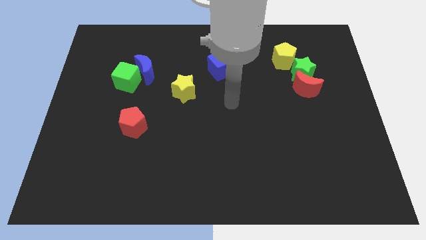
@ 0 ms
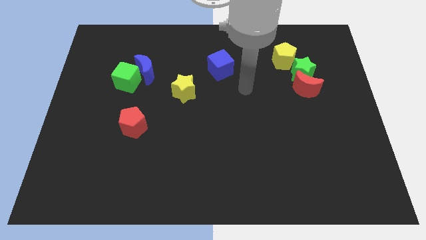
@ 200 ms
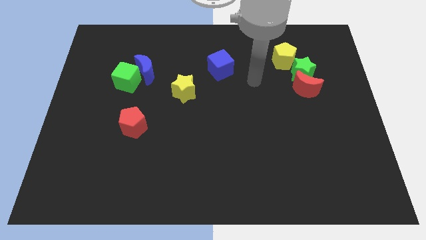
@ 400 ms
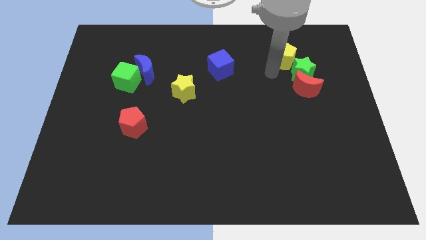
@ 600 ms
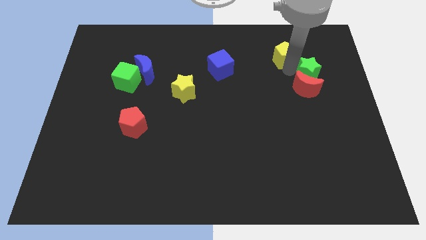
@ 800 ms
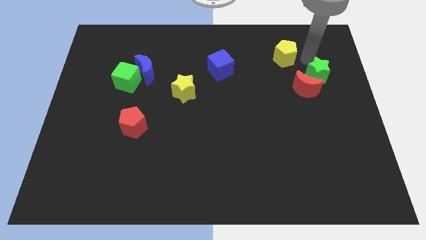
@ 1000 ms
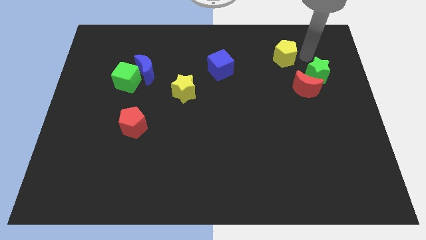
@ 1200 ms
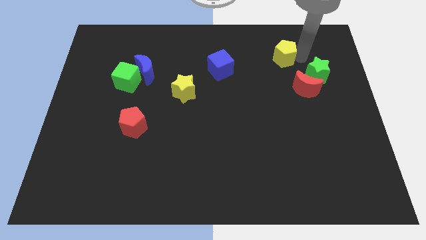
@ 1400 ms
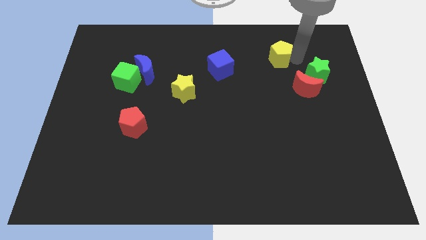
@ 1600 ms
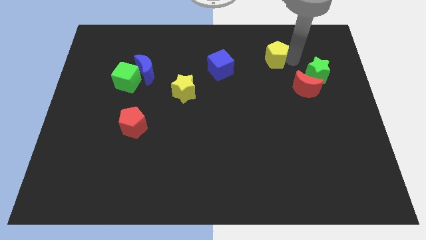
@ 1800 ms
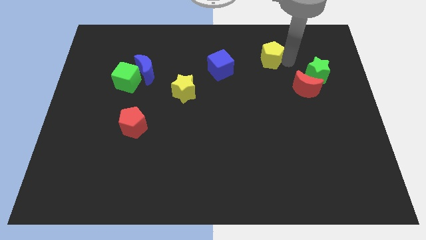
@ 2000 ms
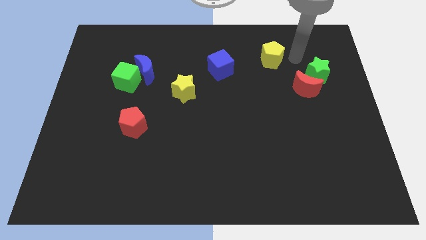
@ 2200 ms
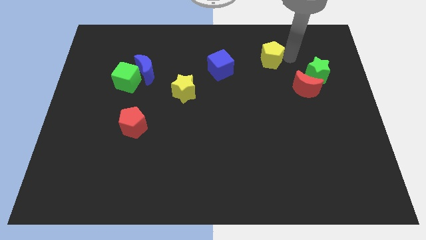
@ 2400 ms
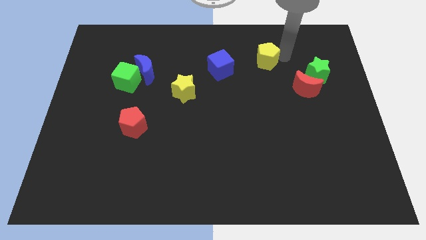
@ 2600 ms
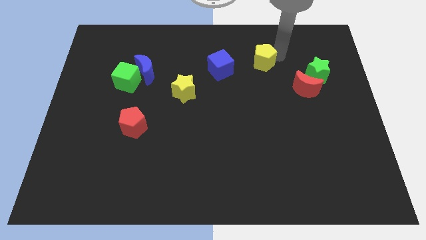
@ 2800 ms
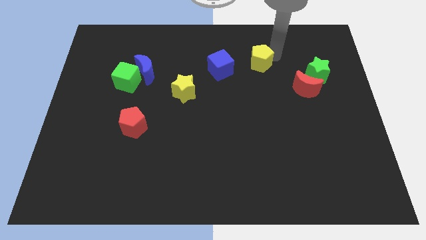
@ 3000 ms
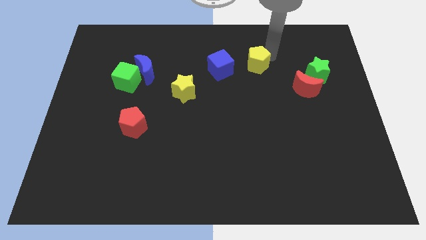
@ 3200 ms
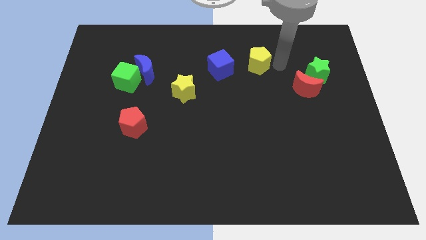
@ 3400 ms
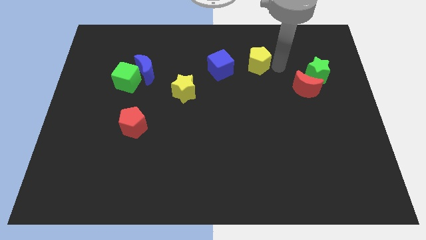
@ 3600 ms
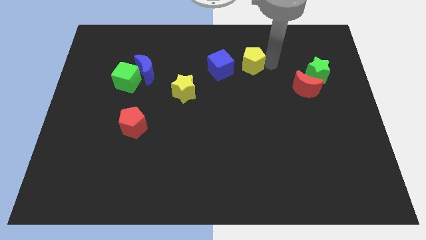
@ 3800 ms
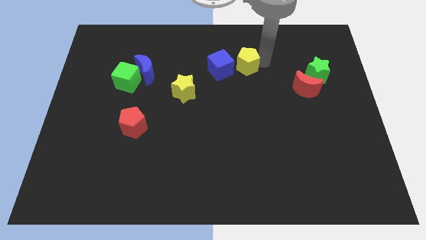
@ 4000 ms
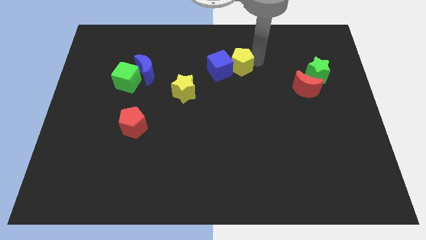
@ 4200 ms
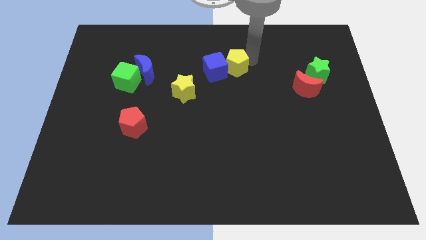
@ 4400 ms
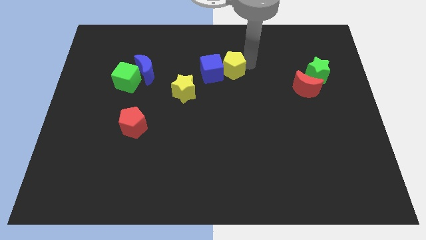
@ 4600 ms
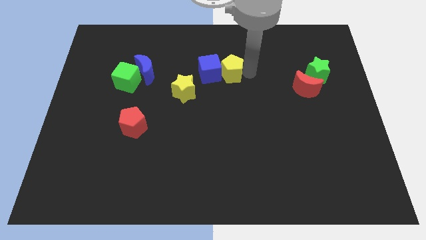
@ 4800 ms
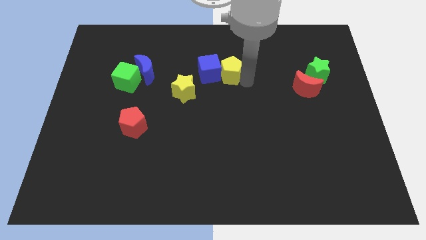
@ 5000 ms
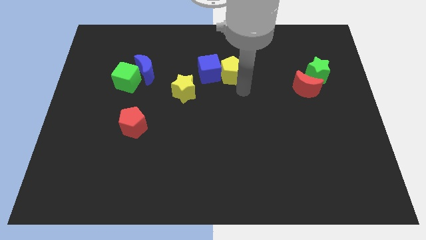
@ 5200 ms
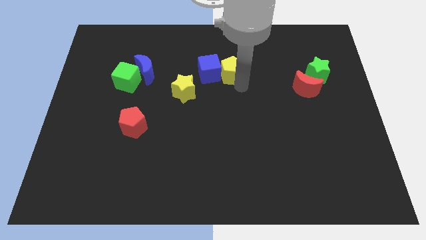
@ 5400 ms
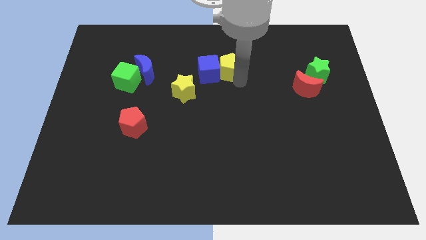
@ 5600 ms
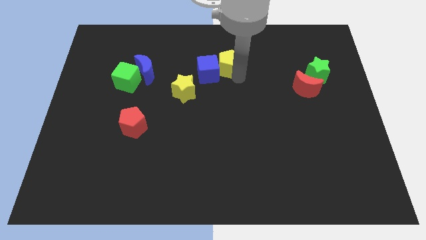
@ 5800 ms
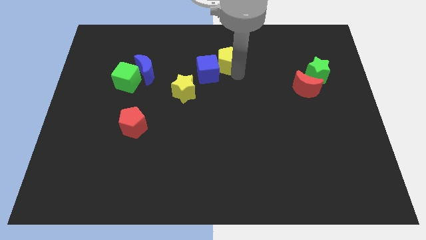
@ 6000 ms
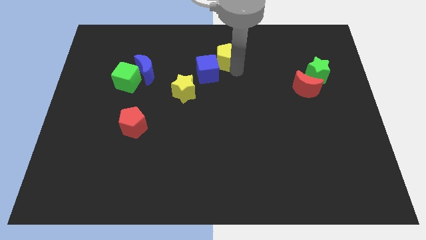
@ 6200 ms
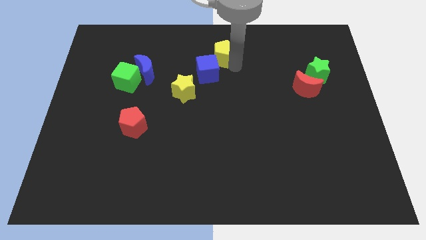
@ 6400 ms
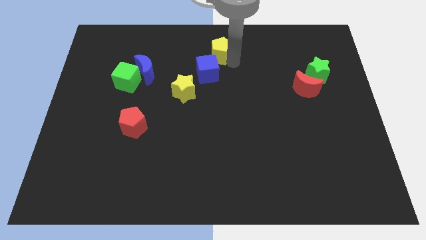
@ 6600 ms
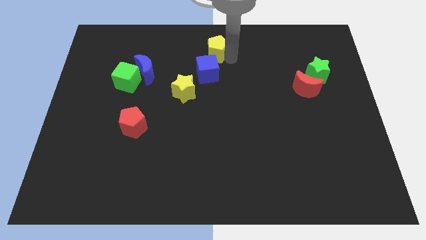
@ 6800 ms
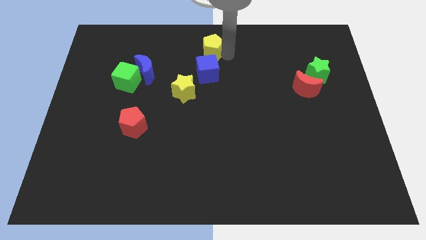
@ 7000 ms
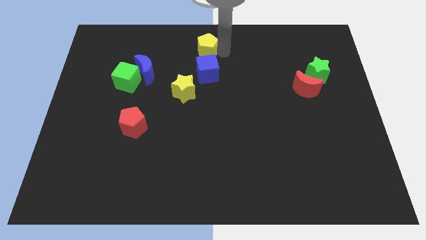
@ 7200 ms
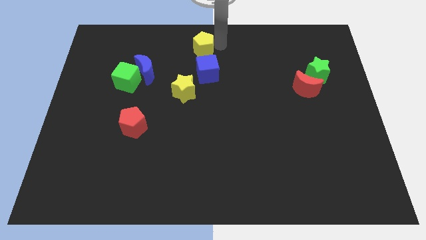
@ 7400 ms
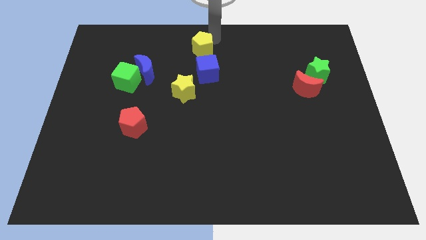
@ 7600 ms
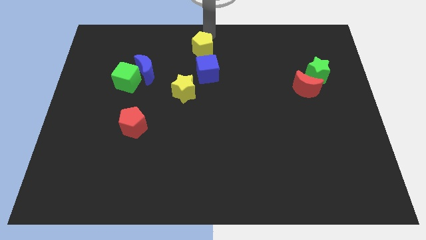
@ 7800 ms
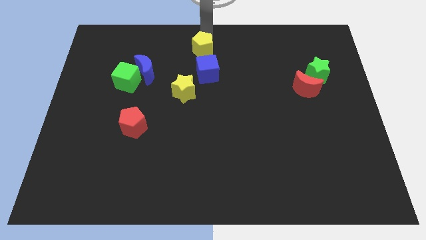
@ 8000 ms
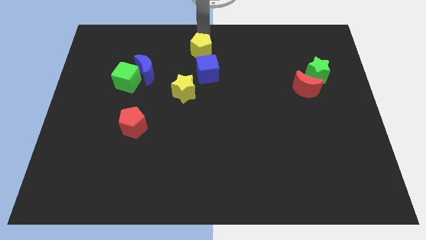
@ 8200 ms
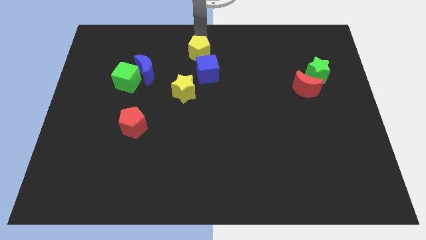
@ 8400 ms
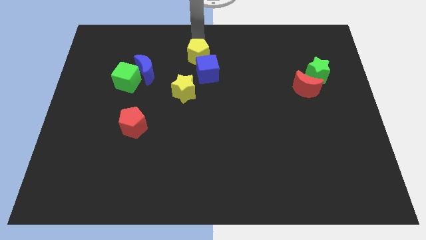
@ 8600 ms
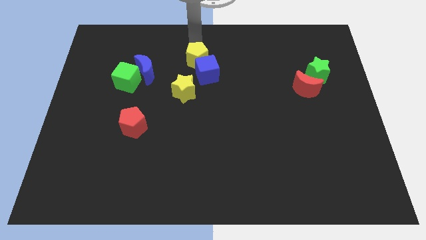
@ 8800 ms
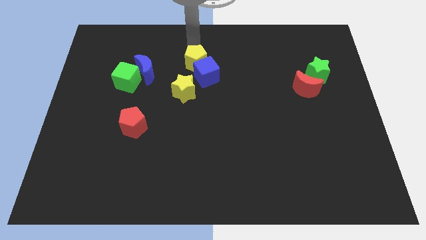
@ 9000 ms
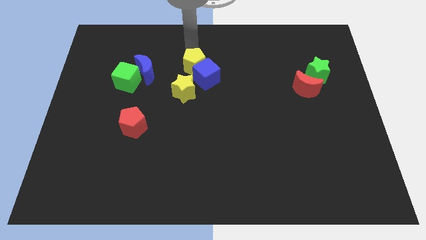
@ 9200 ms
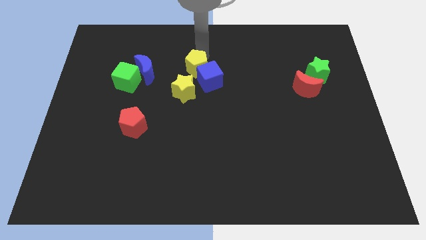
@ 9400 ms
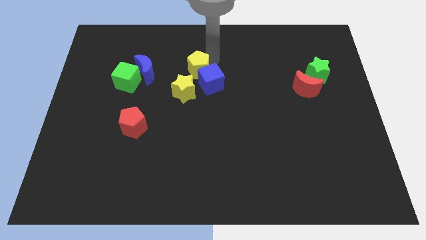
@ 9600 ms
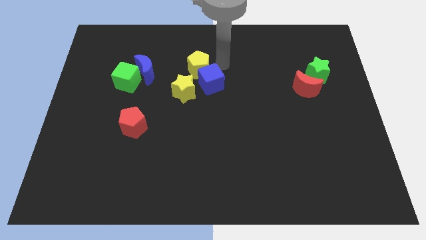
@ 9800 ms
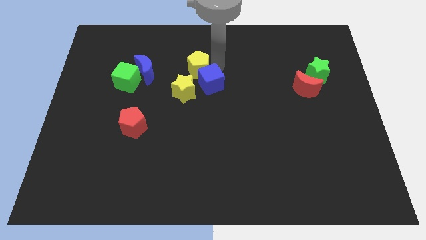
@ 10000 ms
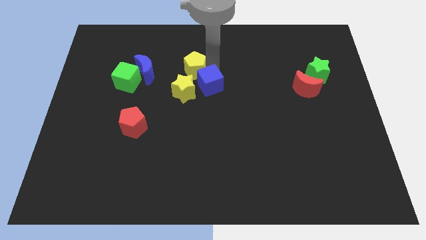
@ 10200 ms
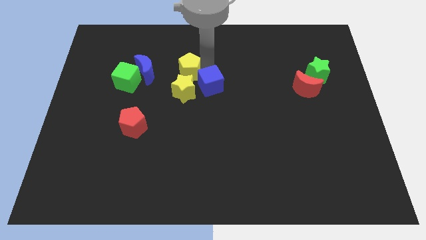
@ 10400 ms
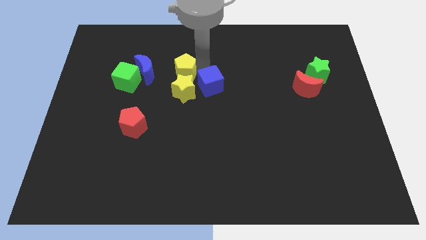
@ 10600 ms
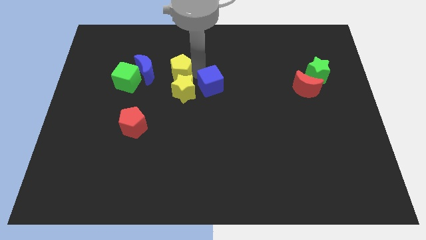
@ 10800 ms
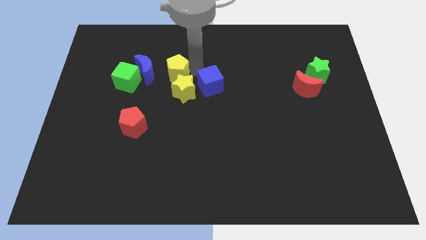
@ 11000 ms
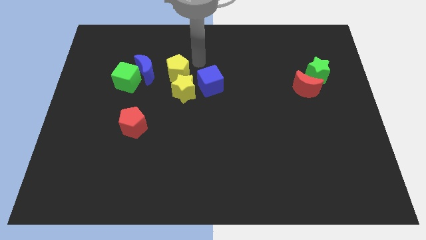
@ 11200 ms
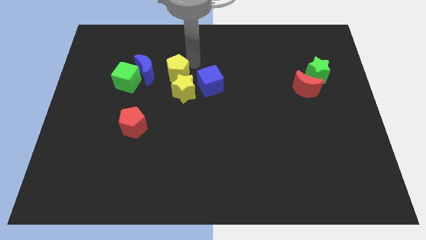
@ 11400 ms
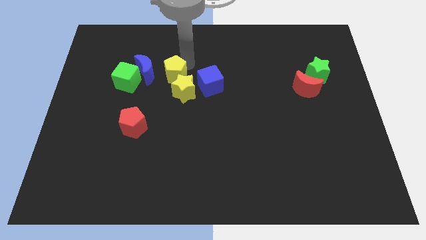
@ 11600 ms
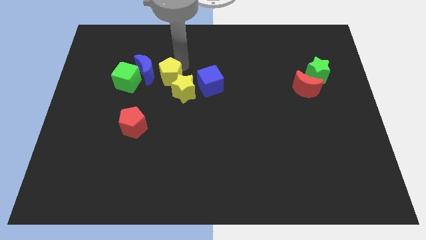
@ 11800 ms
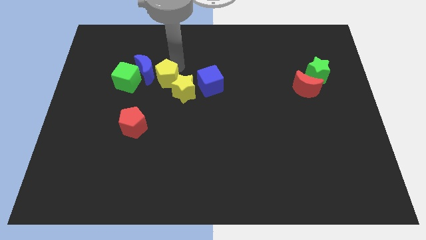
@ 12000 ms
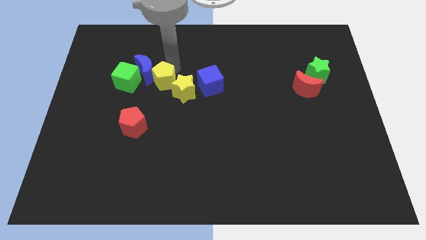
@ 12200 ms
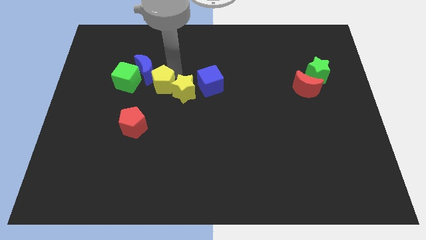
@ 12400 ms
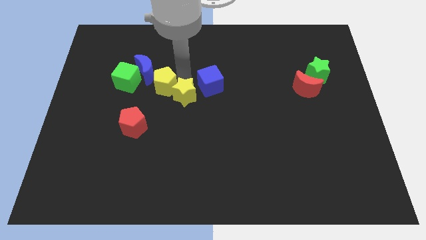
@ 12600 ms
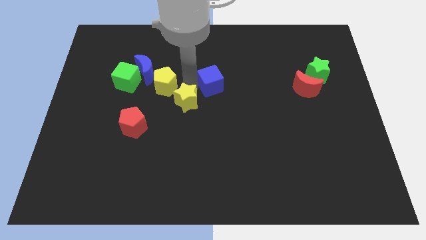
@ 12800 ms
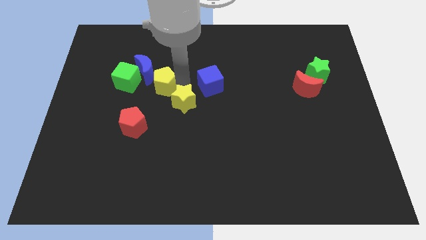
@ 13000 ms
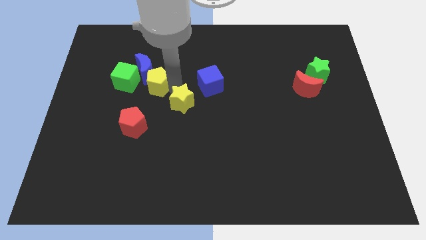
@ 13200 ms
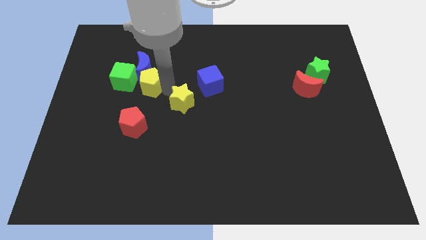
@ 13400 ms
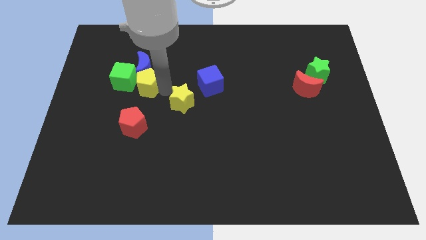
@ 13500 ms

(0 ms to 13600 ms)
slide the yellow pentagon to the green cube
